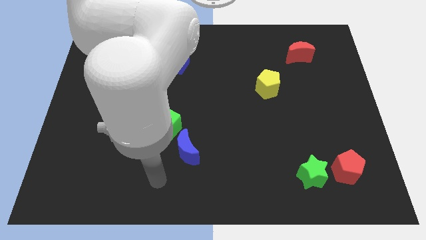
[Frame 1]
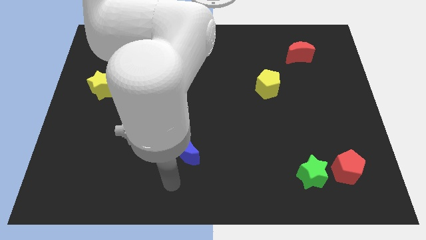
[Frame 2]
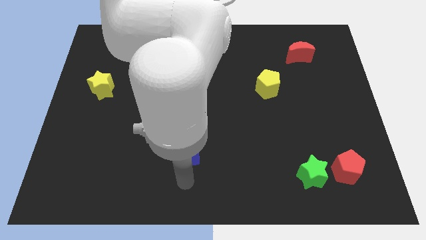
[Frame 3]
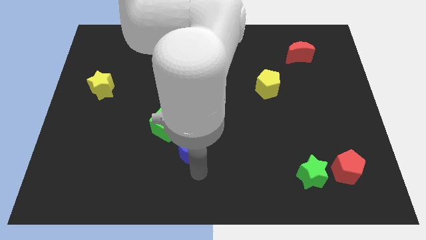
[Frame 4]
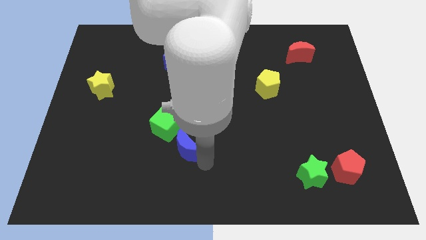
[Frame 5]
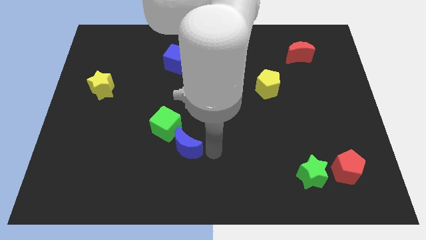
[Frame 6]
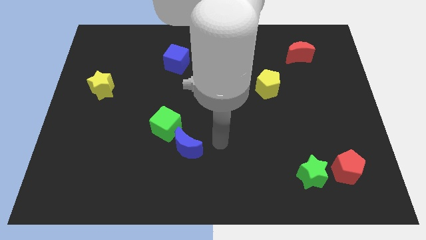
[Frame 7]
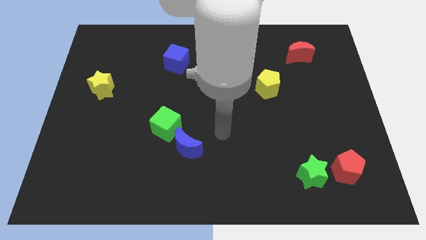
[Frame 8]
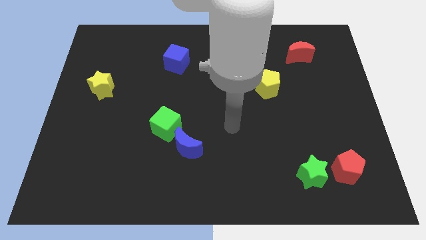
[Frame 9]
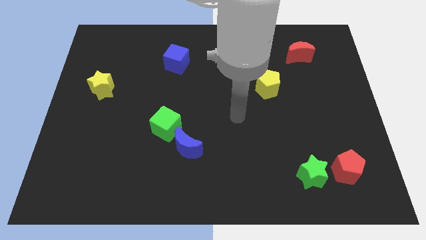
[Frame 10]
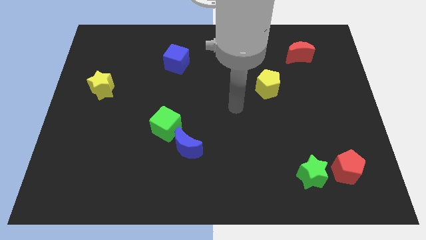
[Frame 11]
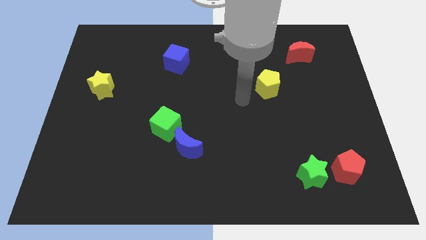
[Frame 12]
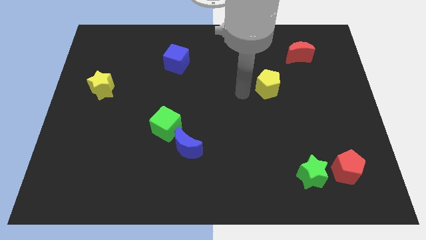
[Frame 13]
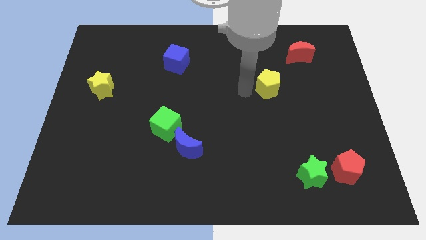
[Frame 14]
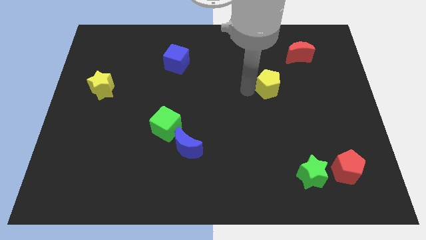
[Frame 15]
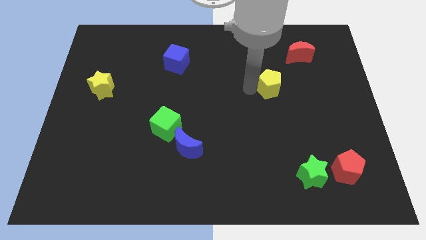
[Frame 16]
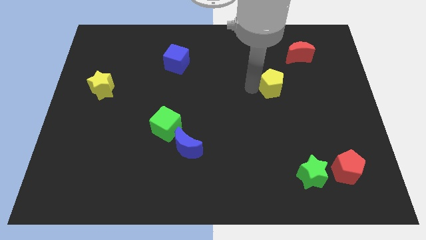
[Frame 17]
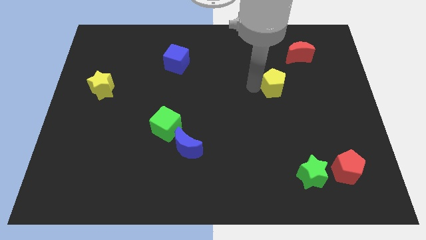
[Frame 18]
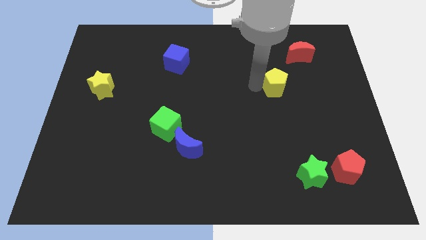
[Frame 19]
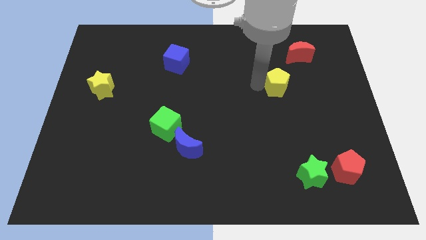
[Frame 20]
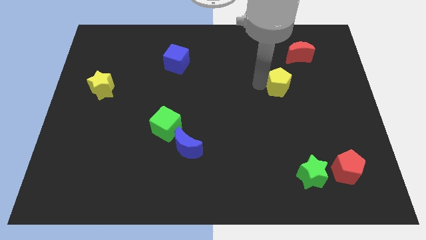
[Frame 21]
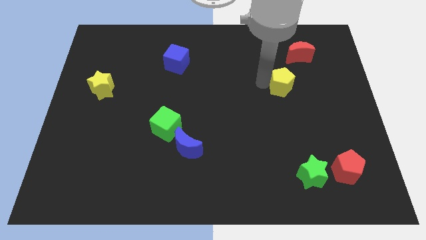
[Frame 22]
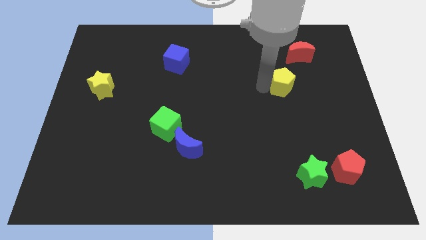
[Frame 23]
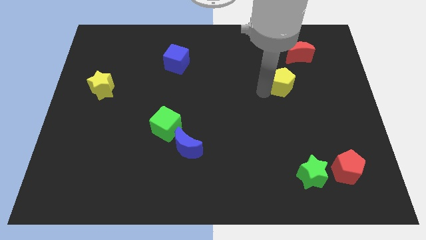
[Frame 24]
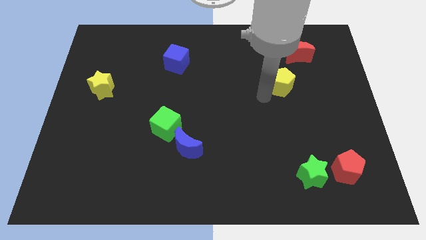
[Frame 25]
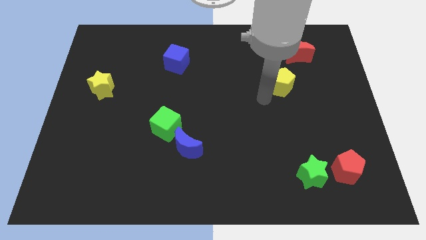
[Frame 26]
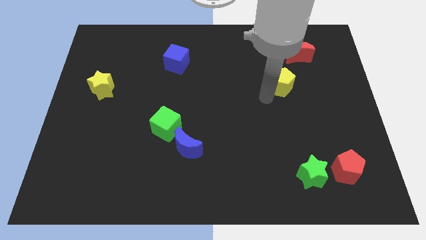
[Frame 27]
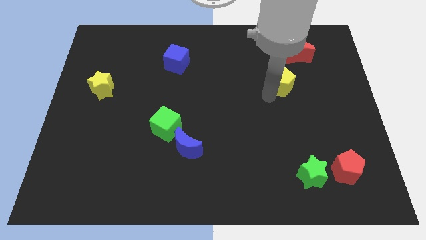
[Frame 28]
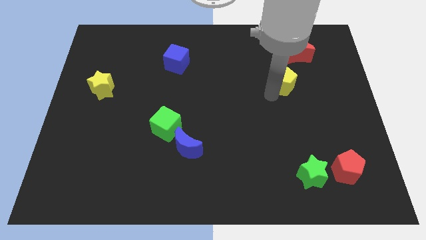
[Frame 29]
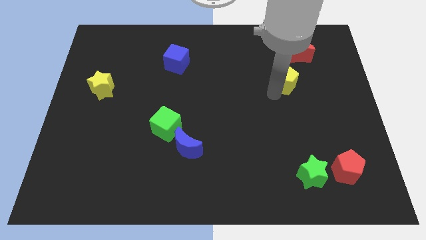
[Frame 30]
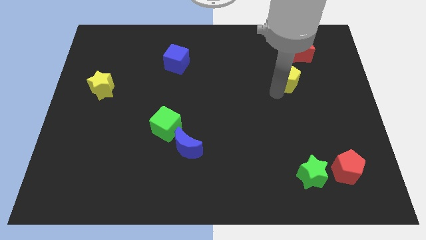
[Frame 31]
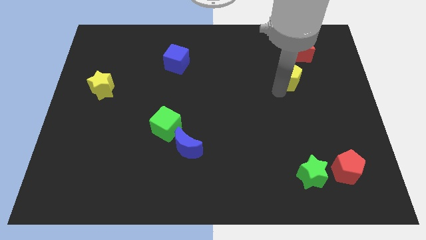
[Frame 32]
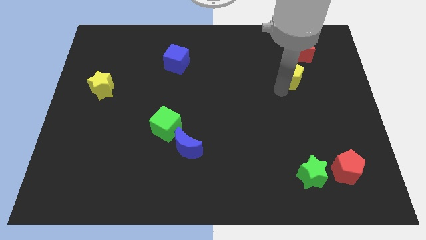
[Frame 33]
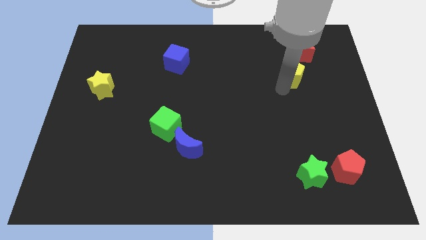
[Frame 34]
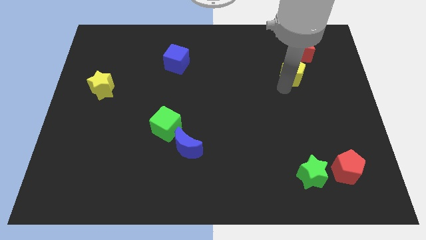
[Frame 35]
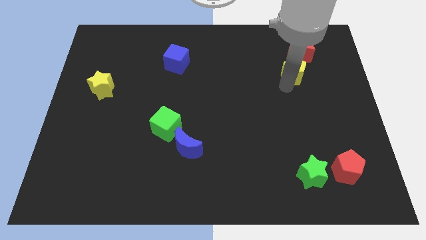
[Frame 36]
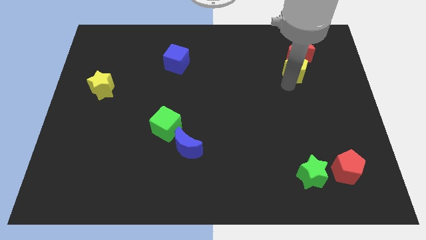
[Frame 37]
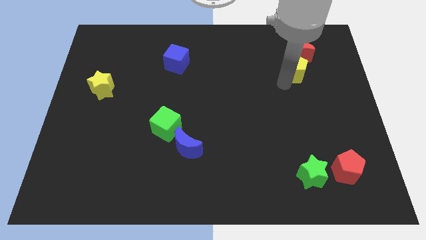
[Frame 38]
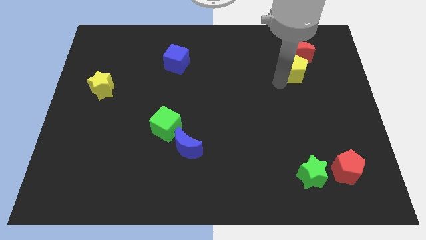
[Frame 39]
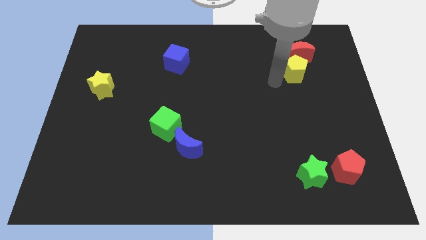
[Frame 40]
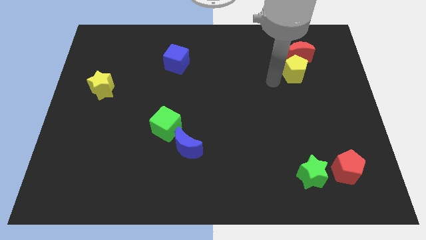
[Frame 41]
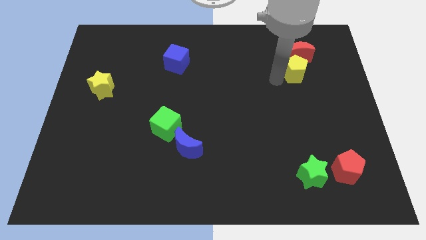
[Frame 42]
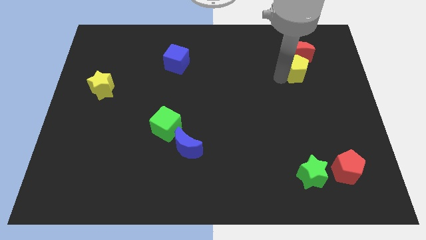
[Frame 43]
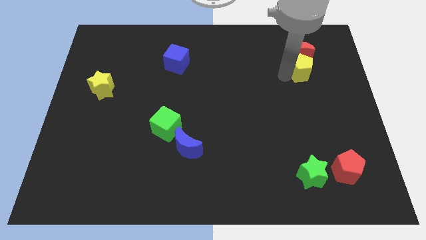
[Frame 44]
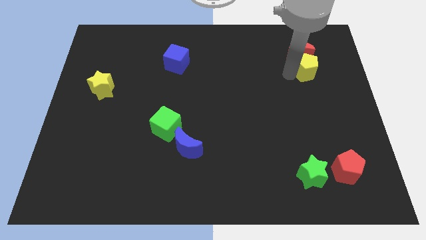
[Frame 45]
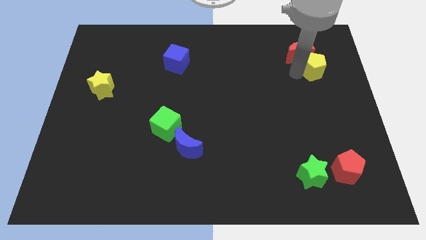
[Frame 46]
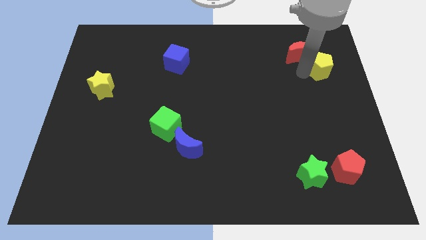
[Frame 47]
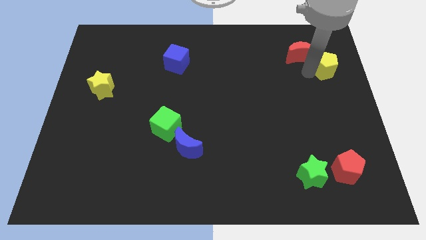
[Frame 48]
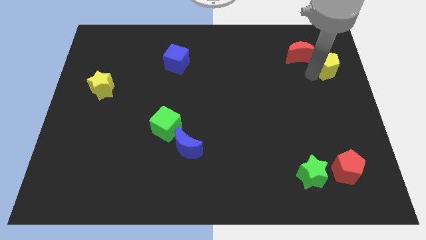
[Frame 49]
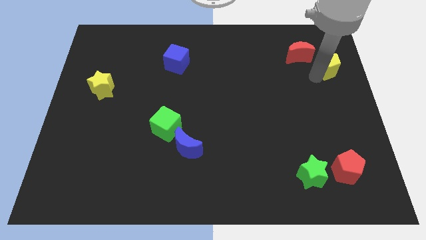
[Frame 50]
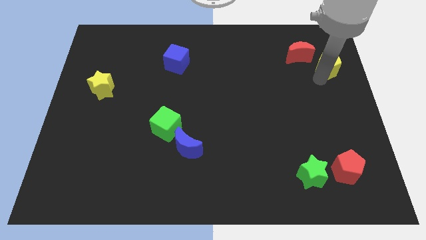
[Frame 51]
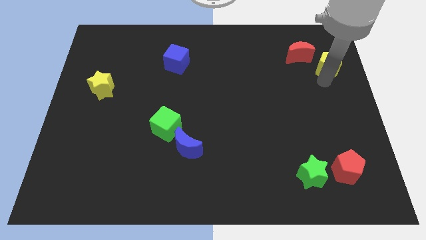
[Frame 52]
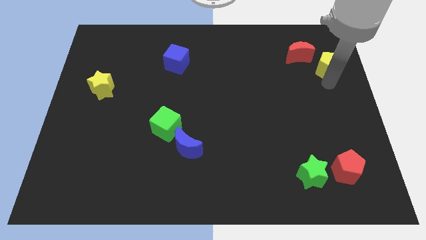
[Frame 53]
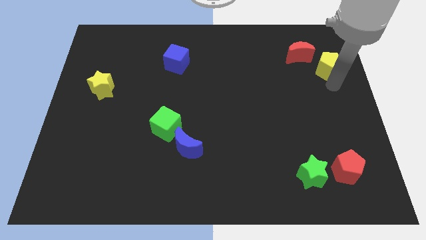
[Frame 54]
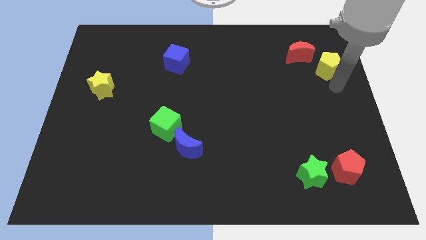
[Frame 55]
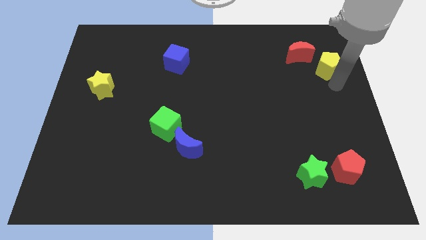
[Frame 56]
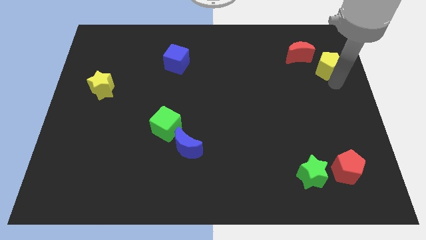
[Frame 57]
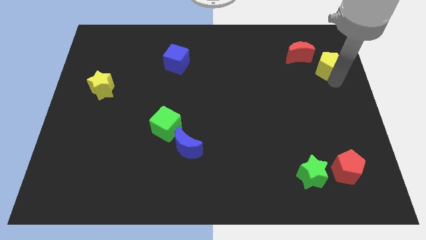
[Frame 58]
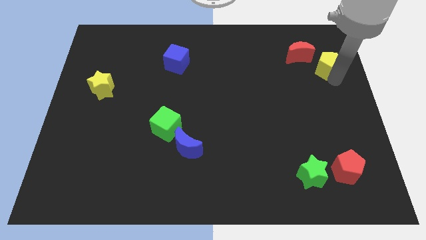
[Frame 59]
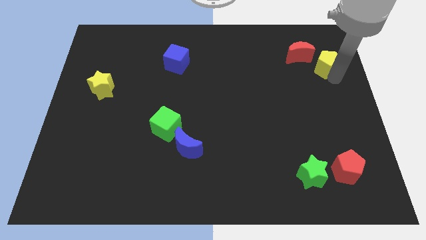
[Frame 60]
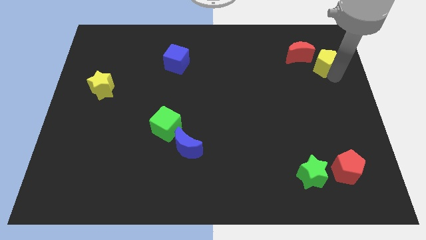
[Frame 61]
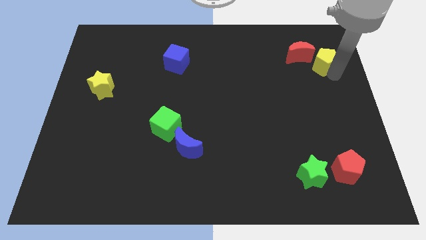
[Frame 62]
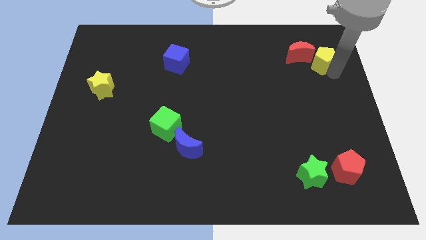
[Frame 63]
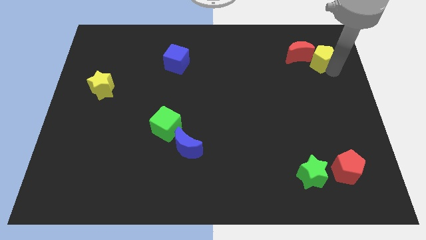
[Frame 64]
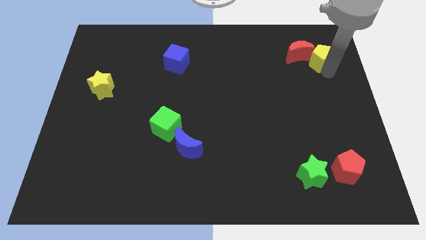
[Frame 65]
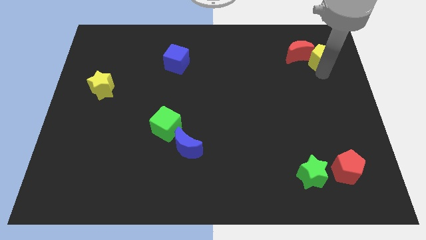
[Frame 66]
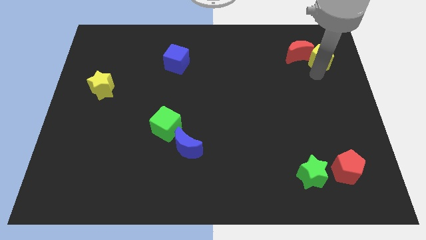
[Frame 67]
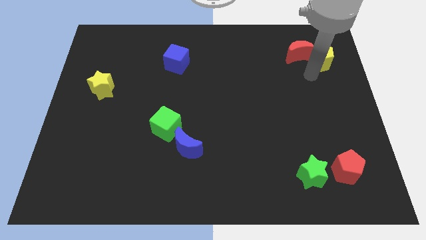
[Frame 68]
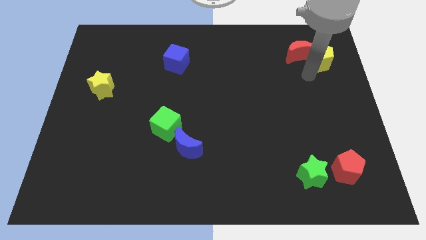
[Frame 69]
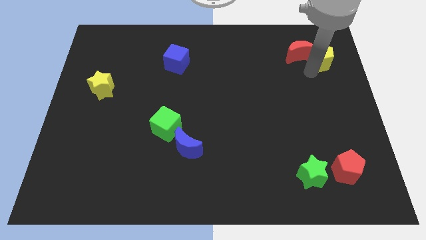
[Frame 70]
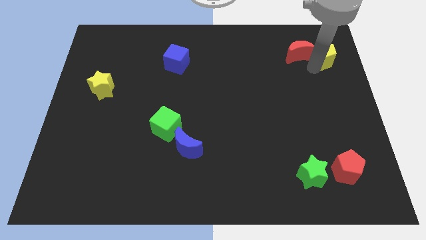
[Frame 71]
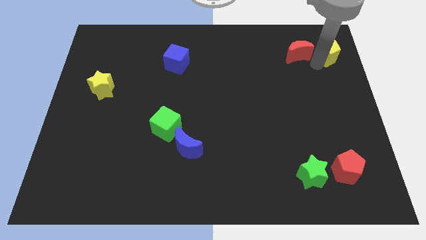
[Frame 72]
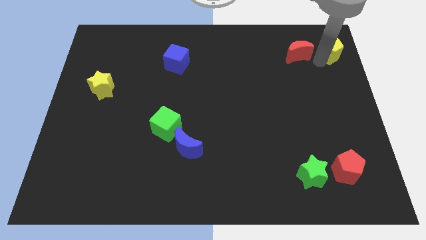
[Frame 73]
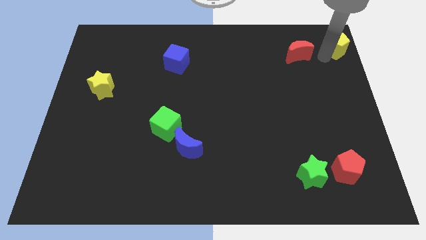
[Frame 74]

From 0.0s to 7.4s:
slide the yellow pentagon to the upper right corner
